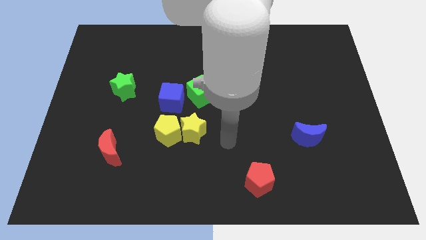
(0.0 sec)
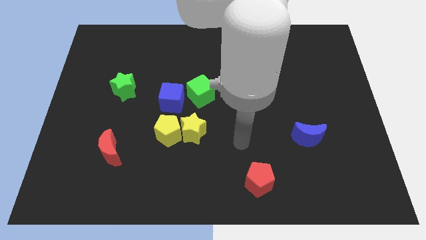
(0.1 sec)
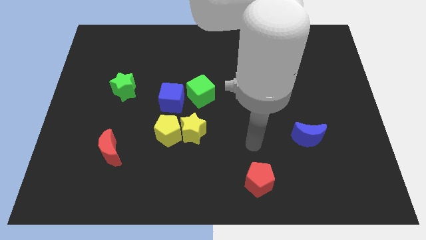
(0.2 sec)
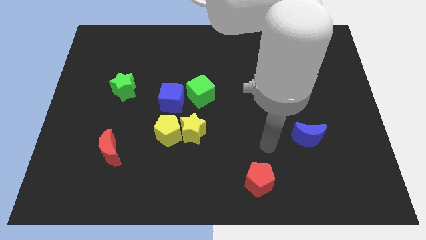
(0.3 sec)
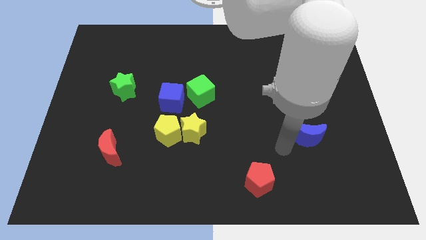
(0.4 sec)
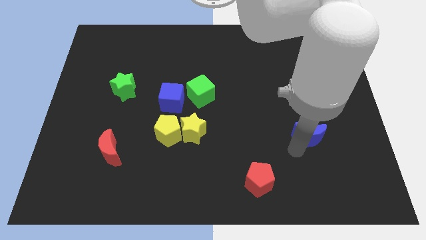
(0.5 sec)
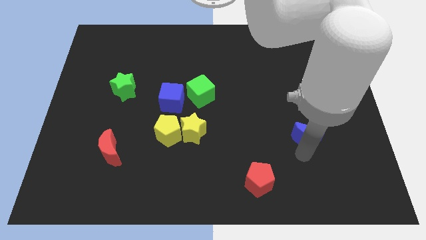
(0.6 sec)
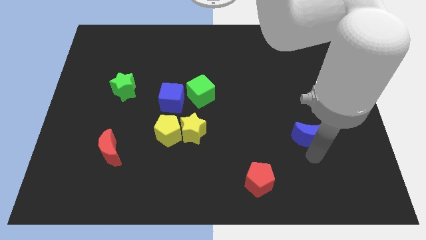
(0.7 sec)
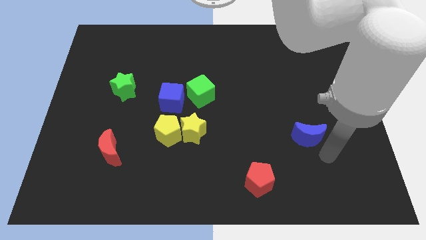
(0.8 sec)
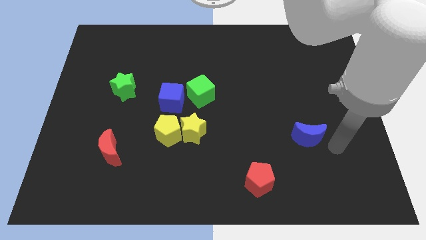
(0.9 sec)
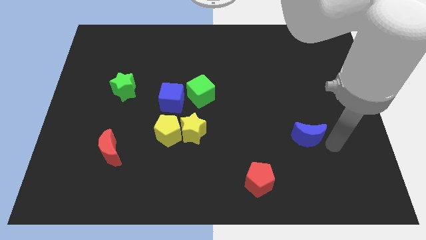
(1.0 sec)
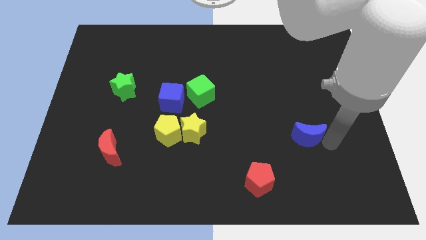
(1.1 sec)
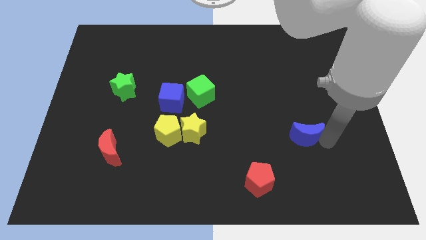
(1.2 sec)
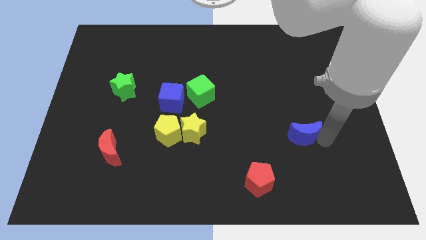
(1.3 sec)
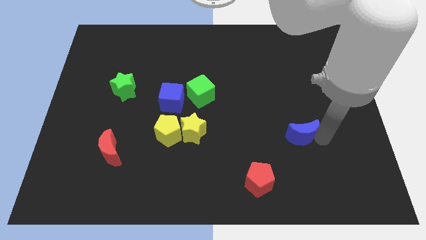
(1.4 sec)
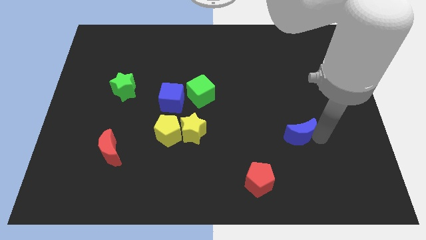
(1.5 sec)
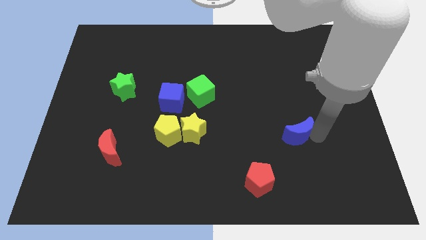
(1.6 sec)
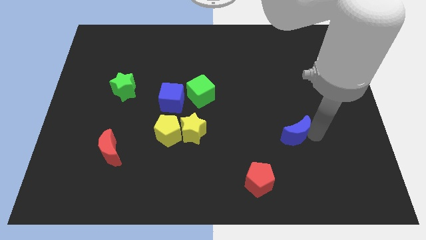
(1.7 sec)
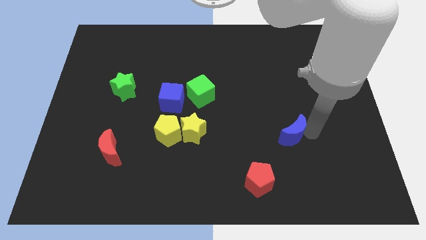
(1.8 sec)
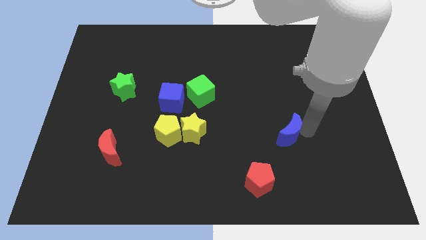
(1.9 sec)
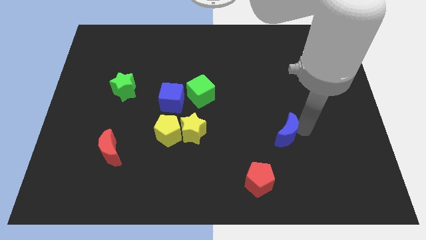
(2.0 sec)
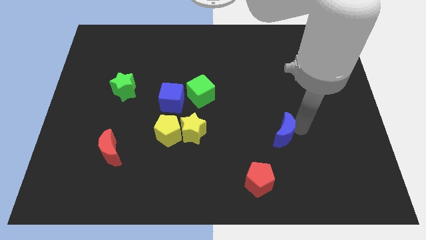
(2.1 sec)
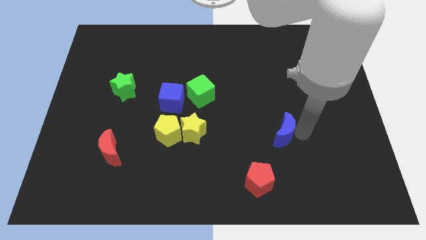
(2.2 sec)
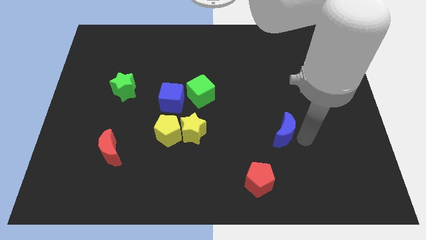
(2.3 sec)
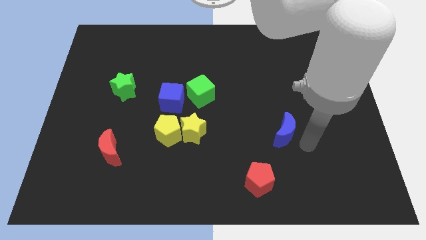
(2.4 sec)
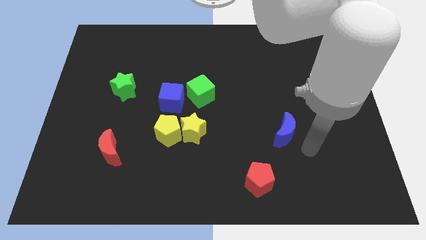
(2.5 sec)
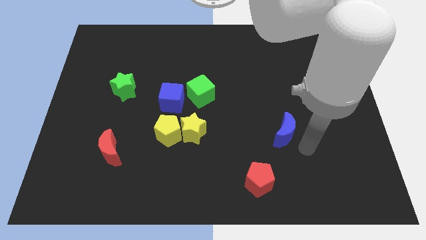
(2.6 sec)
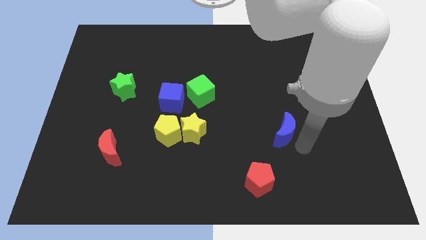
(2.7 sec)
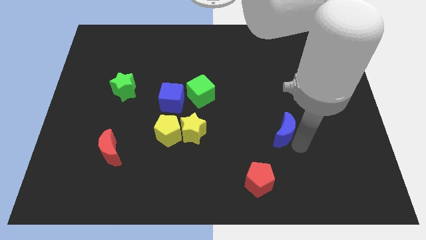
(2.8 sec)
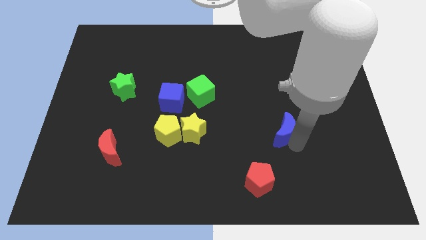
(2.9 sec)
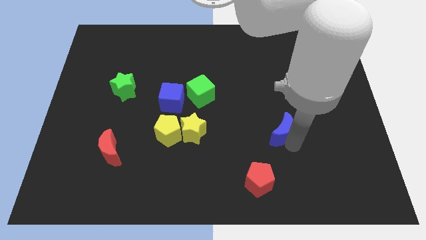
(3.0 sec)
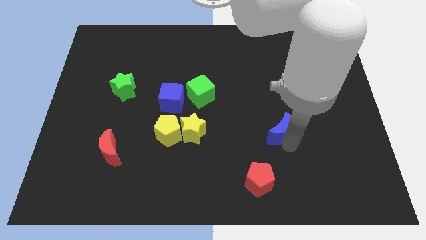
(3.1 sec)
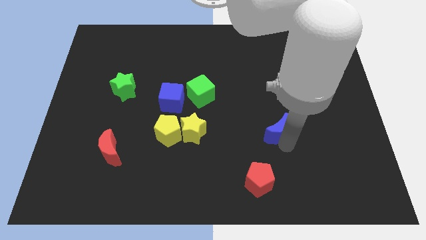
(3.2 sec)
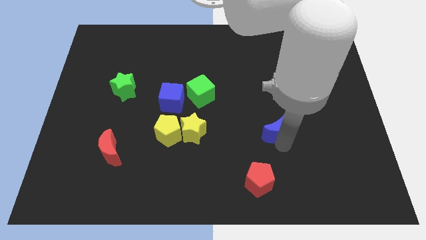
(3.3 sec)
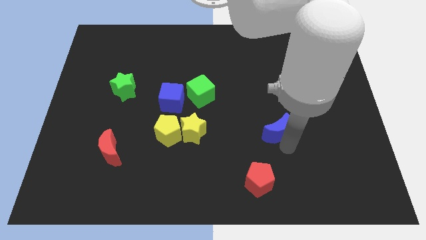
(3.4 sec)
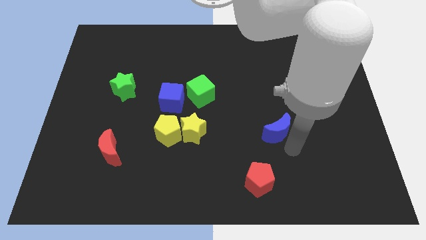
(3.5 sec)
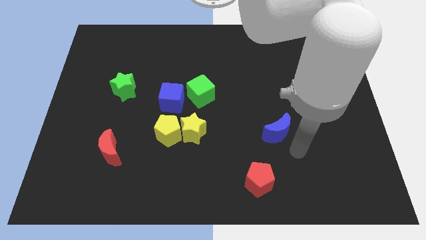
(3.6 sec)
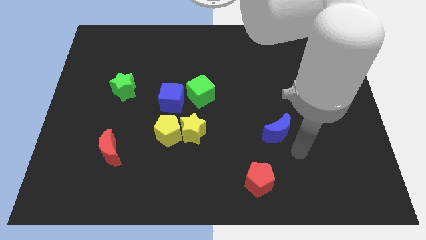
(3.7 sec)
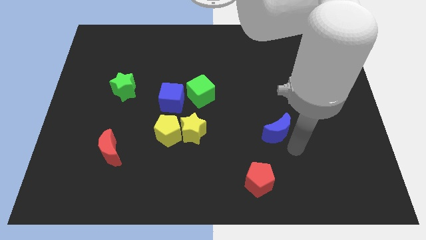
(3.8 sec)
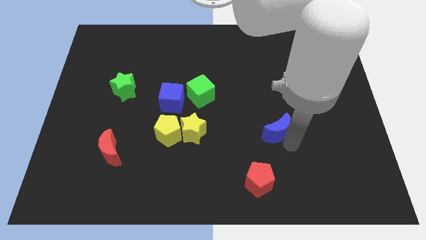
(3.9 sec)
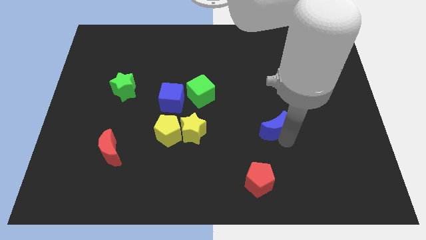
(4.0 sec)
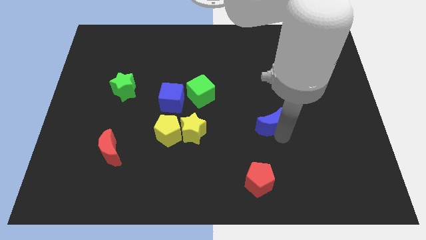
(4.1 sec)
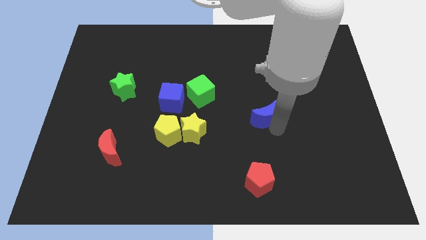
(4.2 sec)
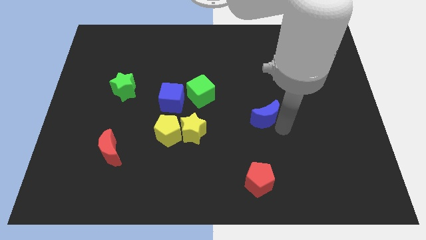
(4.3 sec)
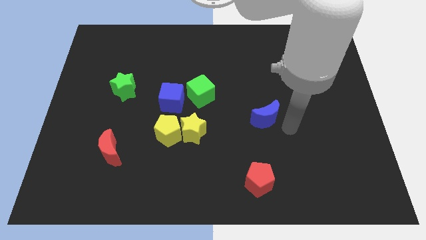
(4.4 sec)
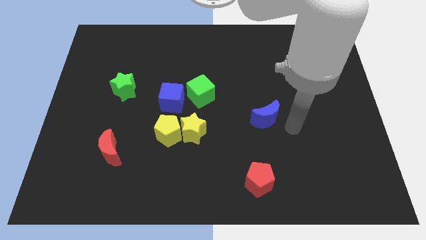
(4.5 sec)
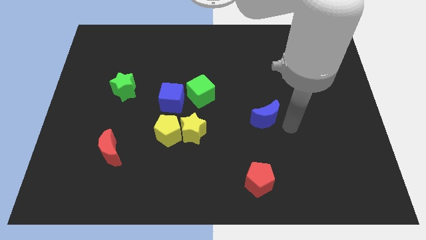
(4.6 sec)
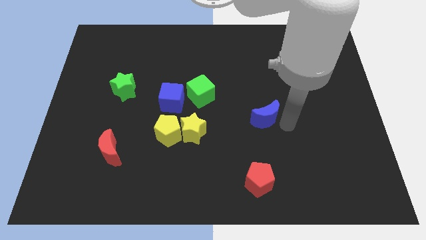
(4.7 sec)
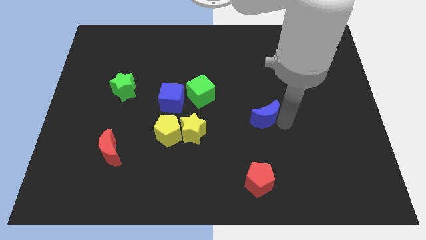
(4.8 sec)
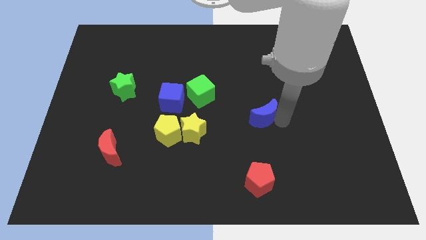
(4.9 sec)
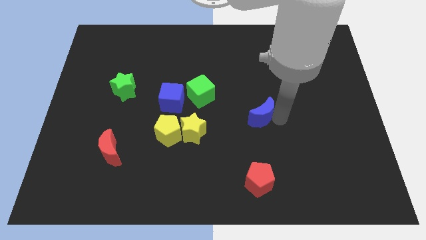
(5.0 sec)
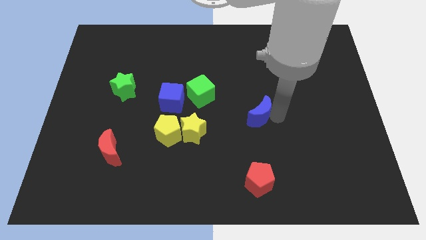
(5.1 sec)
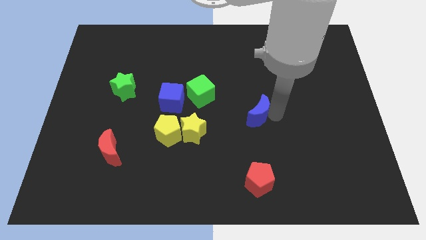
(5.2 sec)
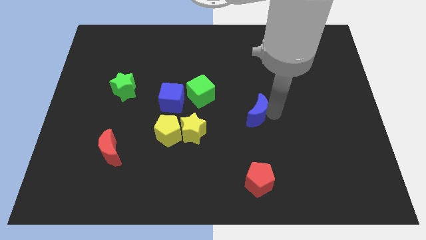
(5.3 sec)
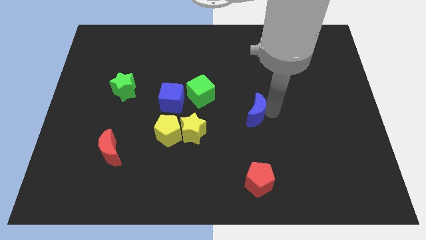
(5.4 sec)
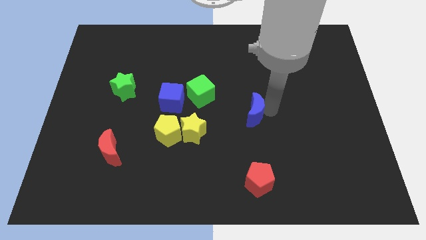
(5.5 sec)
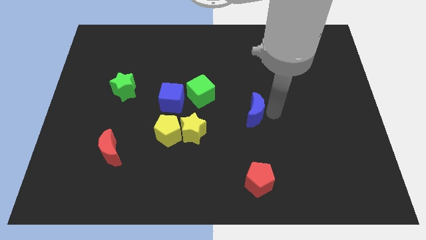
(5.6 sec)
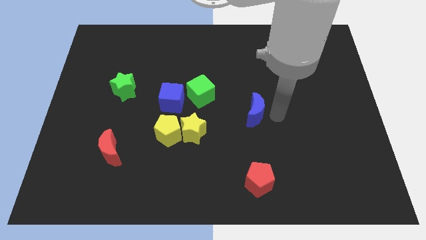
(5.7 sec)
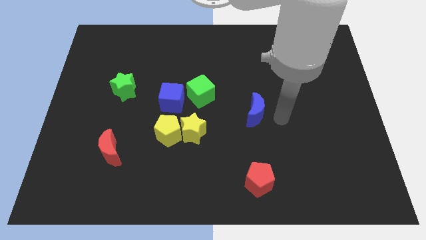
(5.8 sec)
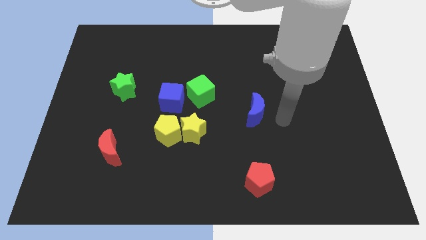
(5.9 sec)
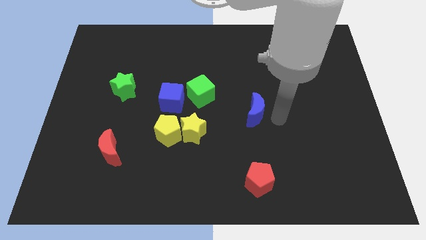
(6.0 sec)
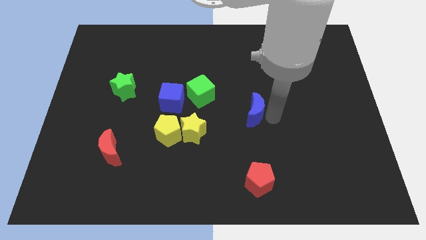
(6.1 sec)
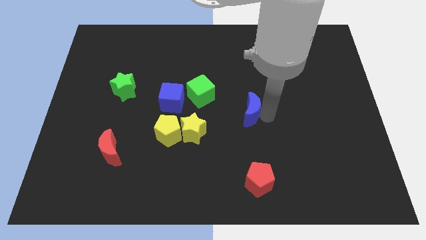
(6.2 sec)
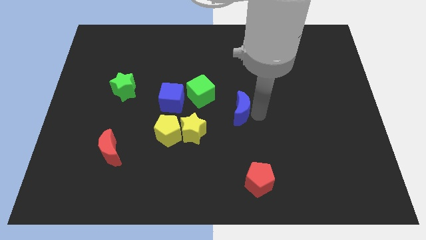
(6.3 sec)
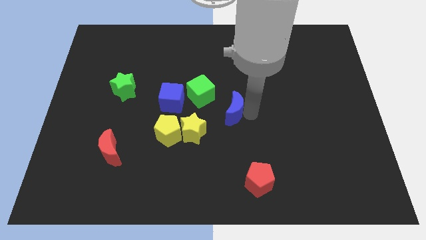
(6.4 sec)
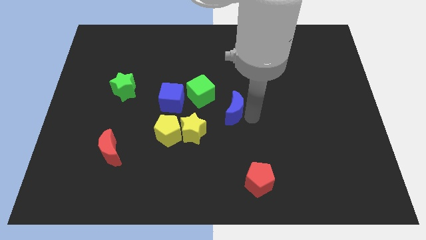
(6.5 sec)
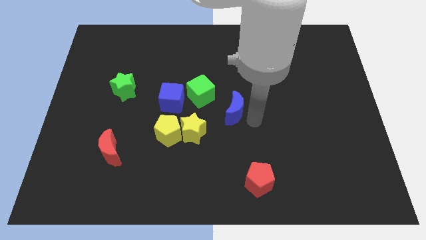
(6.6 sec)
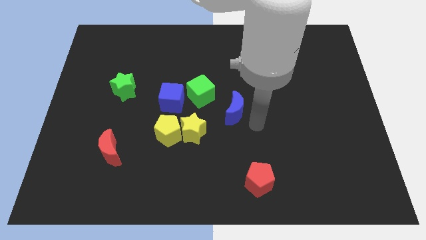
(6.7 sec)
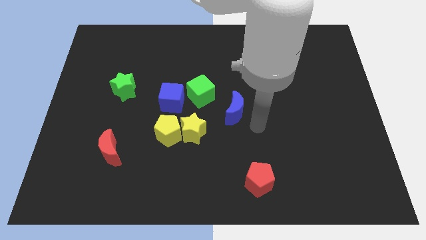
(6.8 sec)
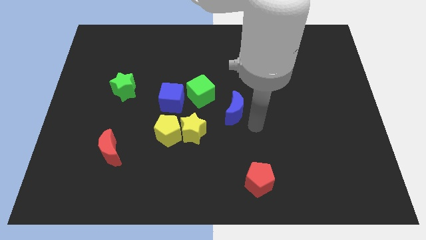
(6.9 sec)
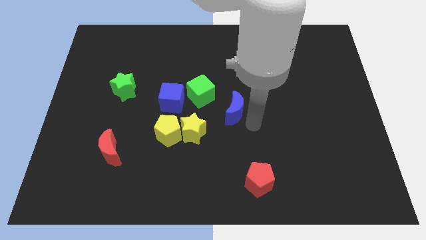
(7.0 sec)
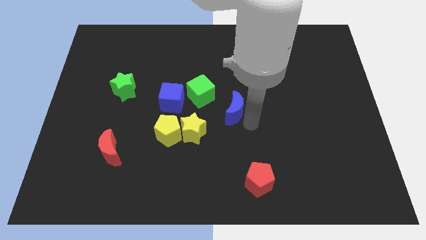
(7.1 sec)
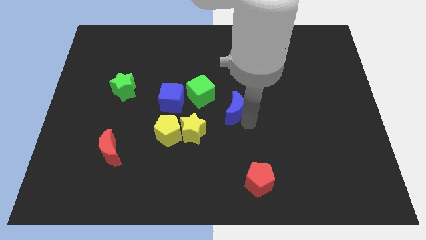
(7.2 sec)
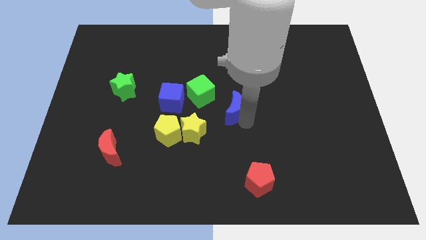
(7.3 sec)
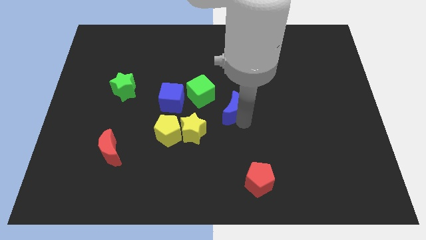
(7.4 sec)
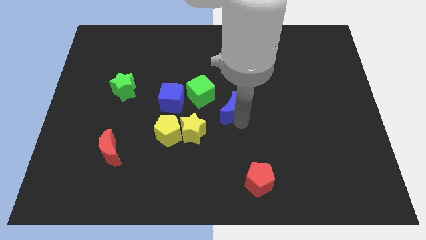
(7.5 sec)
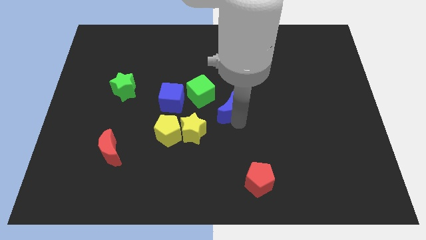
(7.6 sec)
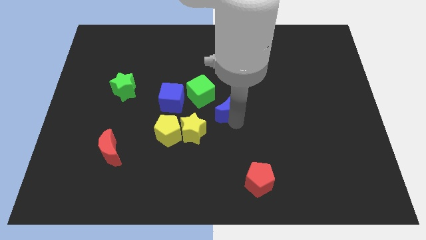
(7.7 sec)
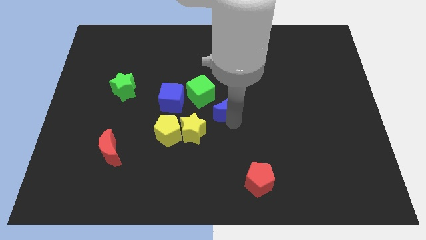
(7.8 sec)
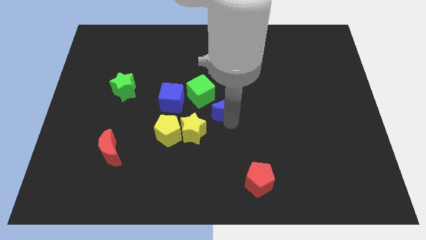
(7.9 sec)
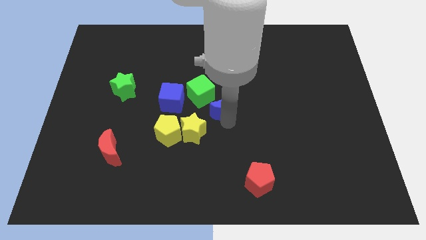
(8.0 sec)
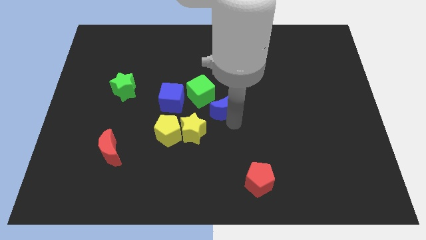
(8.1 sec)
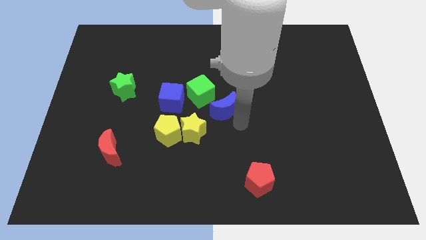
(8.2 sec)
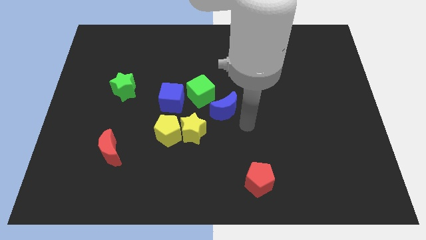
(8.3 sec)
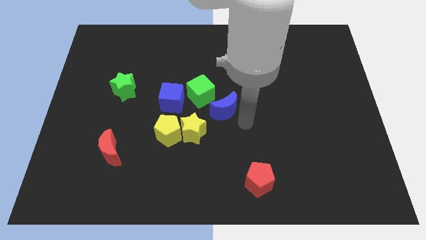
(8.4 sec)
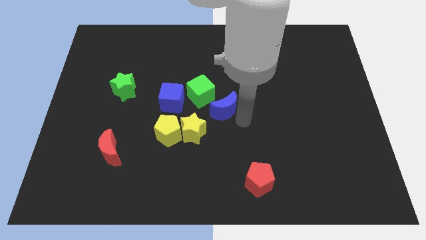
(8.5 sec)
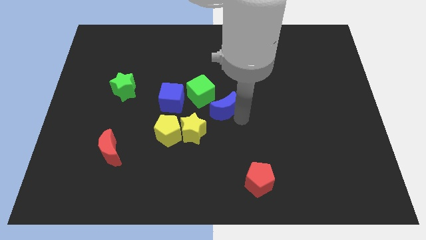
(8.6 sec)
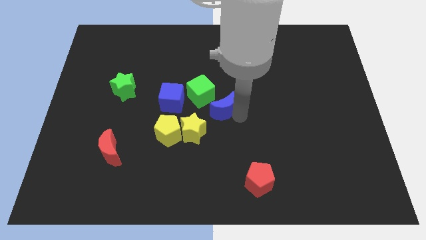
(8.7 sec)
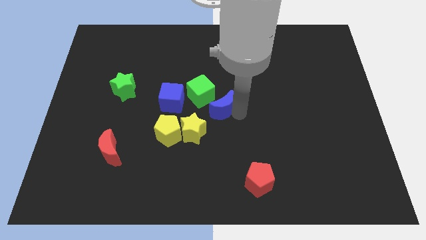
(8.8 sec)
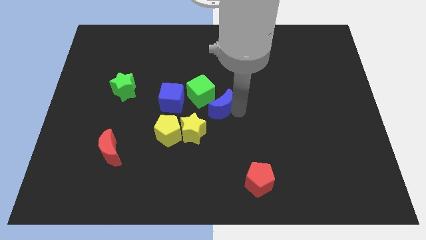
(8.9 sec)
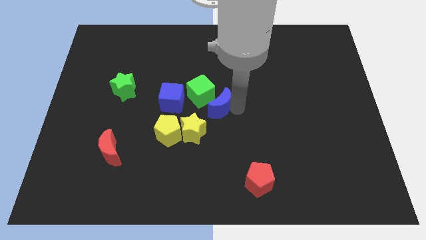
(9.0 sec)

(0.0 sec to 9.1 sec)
slide the blue moon to the green cube
